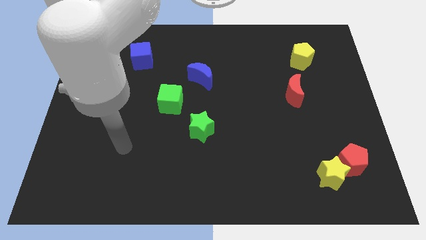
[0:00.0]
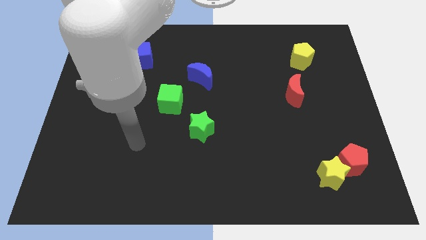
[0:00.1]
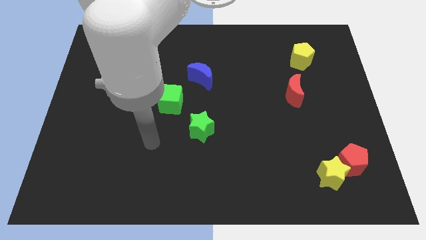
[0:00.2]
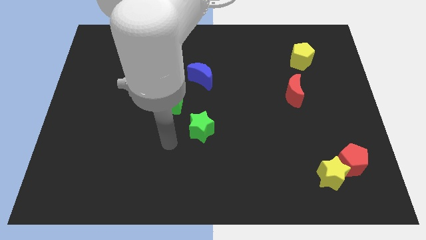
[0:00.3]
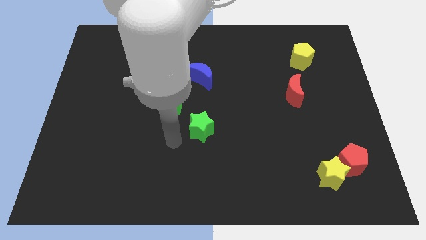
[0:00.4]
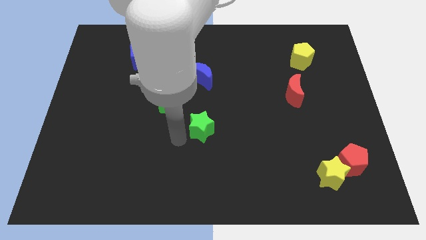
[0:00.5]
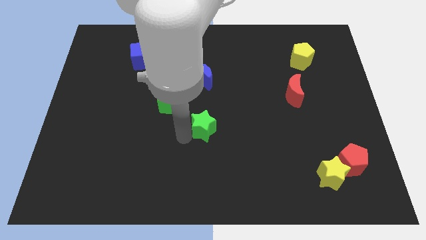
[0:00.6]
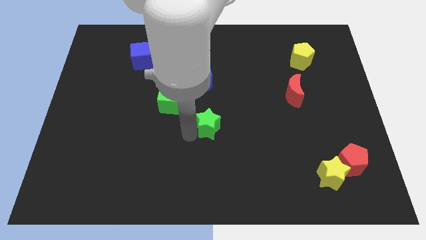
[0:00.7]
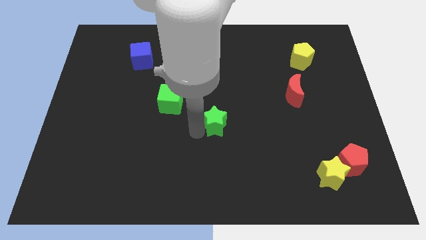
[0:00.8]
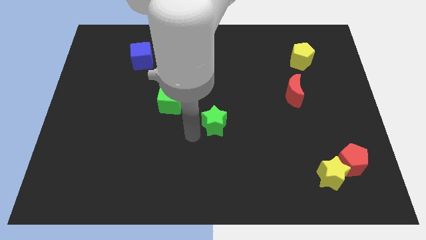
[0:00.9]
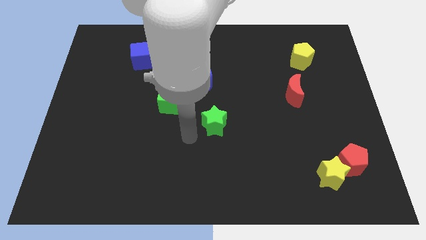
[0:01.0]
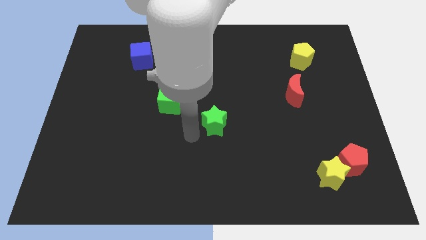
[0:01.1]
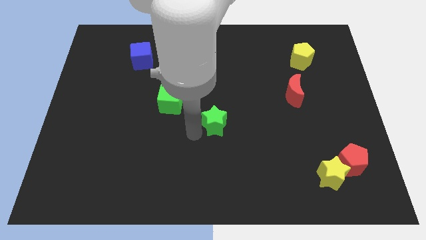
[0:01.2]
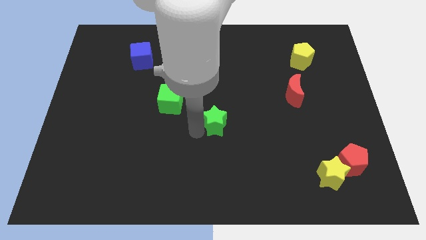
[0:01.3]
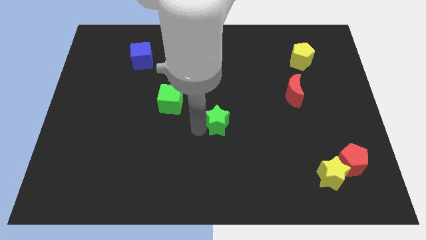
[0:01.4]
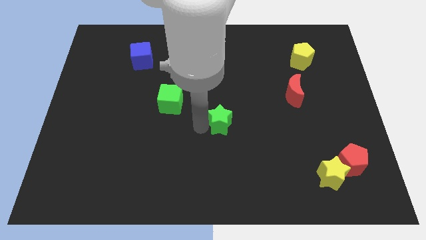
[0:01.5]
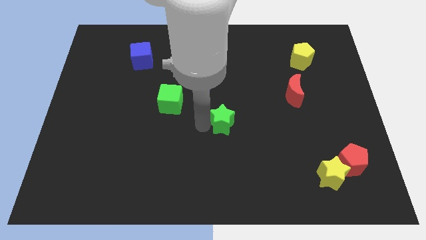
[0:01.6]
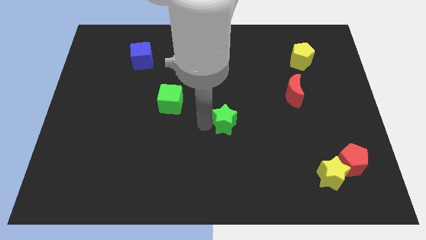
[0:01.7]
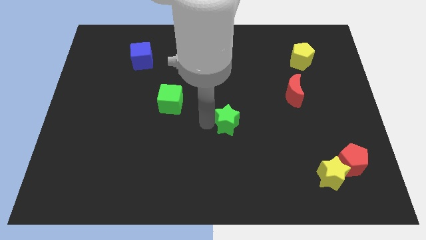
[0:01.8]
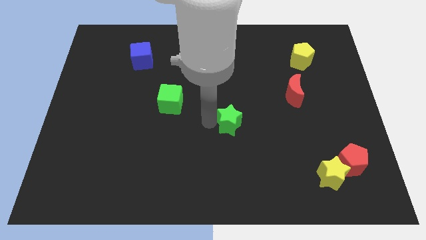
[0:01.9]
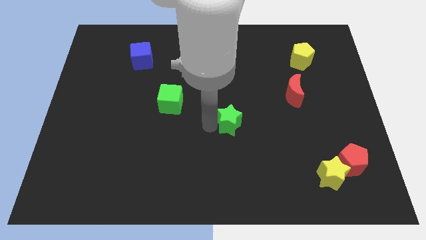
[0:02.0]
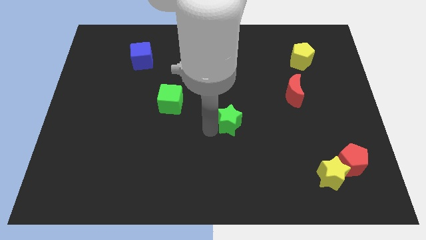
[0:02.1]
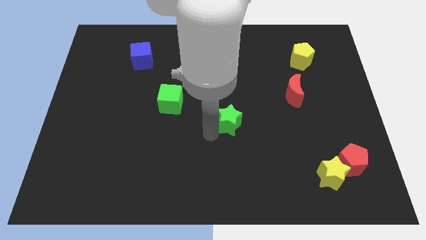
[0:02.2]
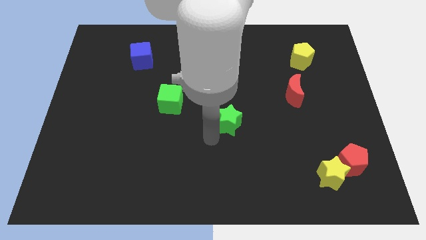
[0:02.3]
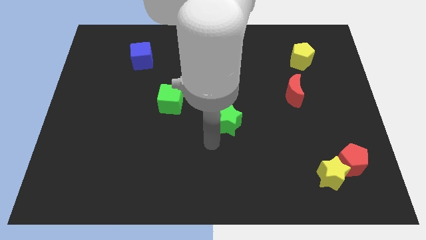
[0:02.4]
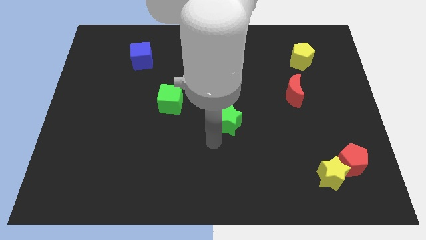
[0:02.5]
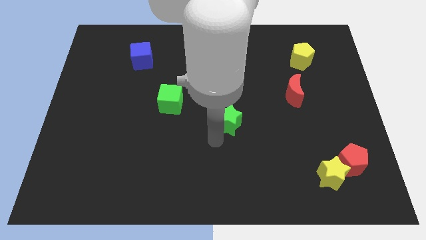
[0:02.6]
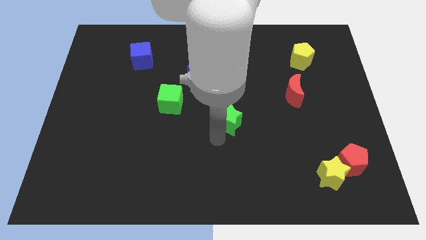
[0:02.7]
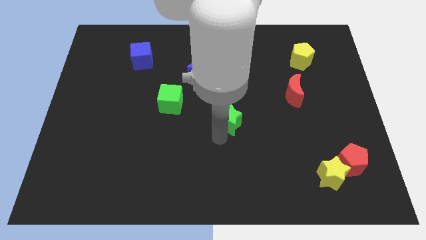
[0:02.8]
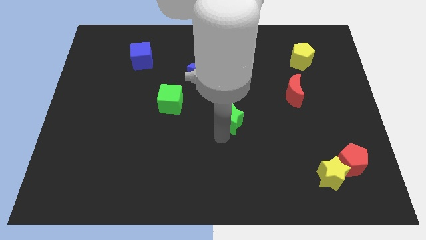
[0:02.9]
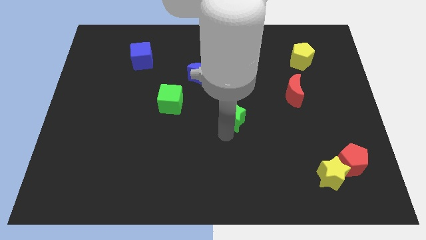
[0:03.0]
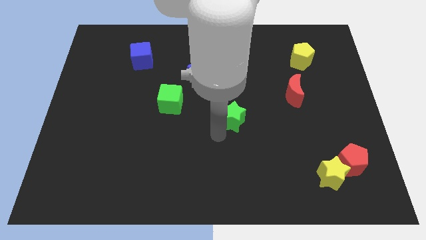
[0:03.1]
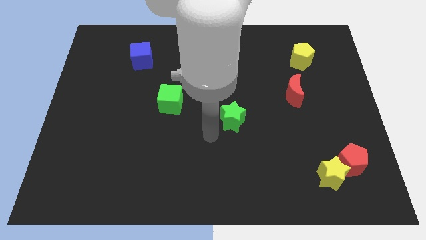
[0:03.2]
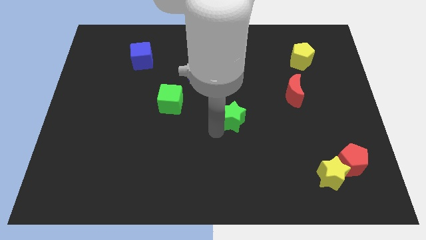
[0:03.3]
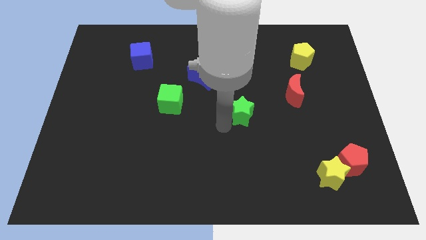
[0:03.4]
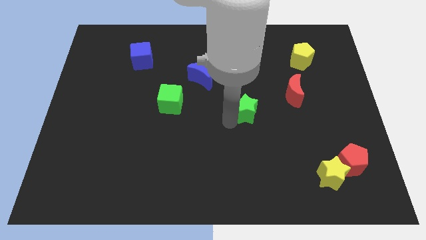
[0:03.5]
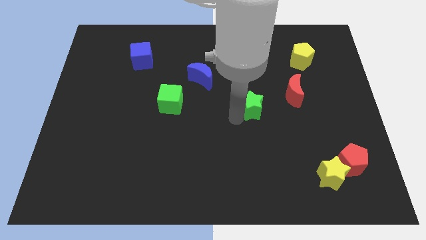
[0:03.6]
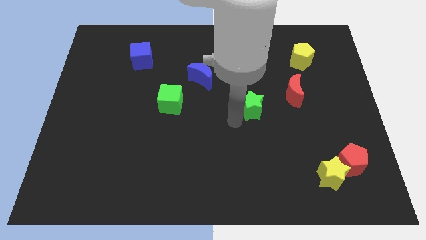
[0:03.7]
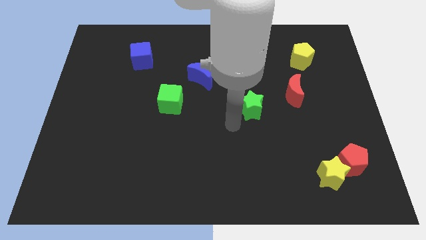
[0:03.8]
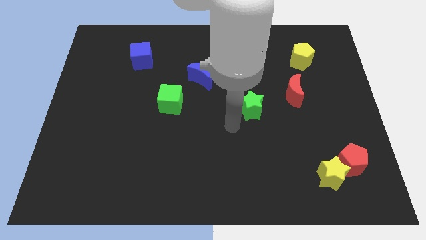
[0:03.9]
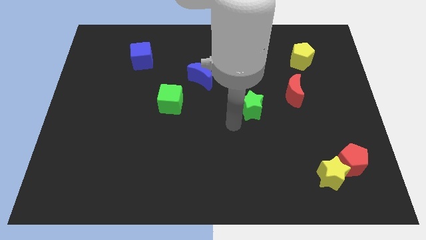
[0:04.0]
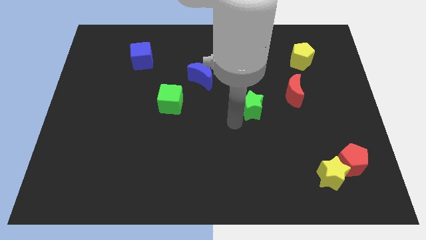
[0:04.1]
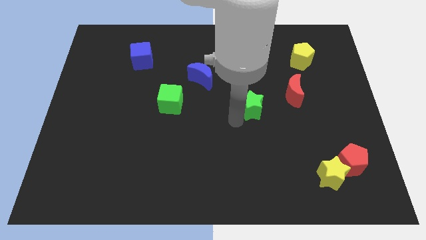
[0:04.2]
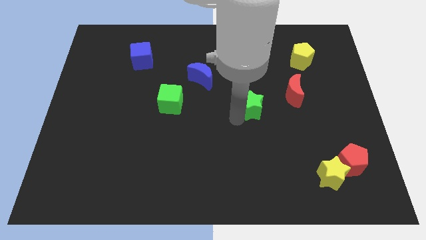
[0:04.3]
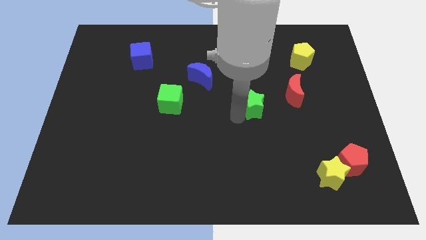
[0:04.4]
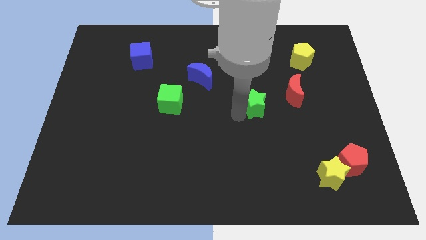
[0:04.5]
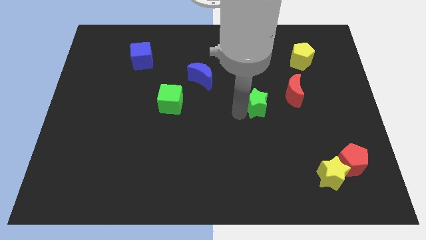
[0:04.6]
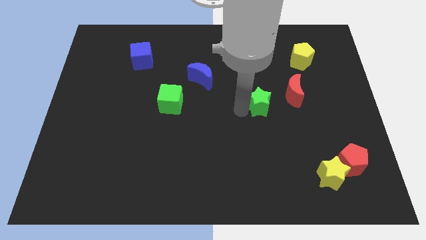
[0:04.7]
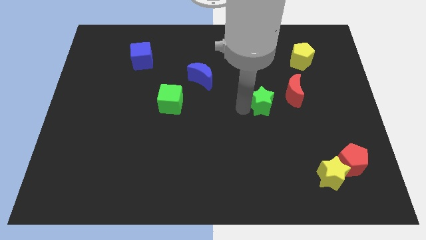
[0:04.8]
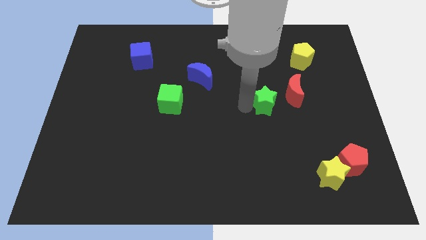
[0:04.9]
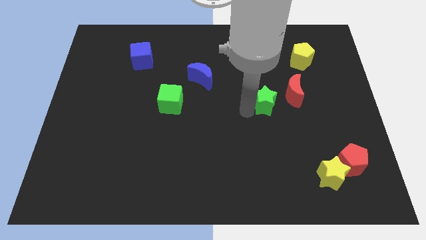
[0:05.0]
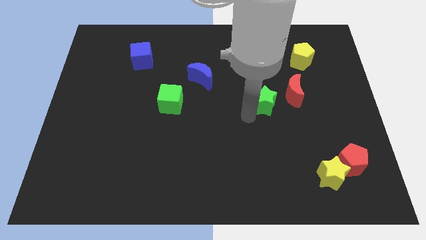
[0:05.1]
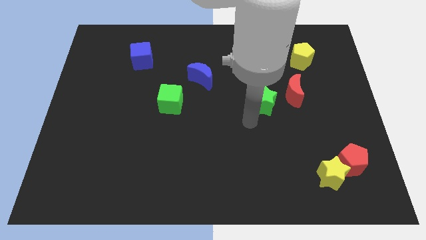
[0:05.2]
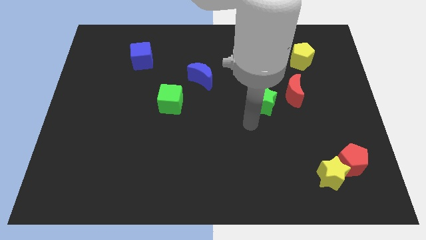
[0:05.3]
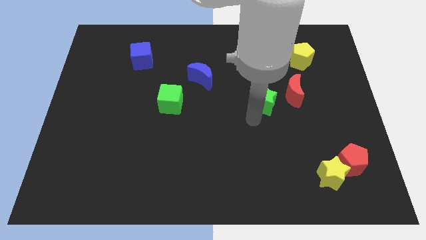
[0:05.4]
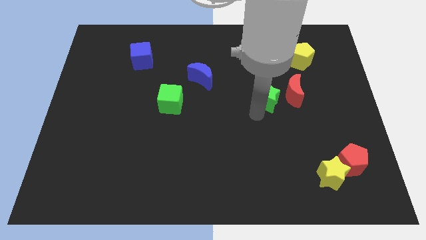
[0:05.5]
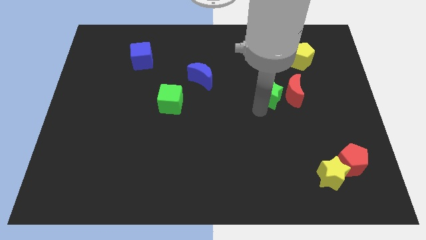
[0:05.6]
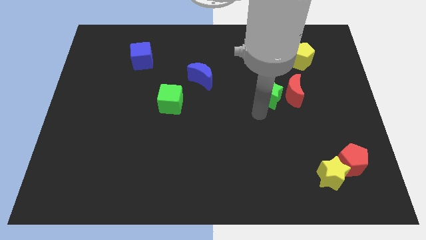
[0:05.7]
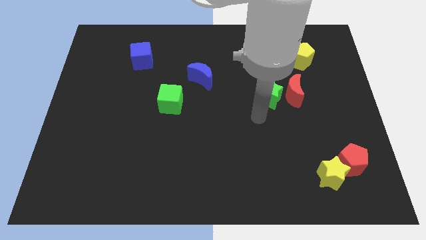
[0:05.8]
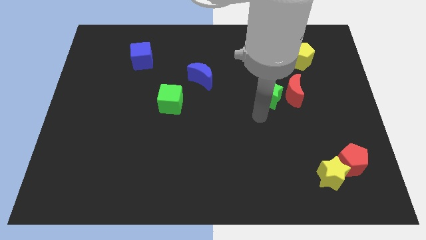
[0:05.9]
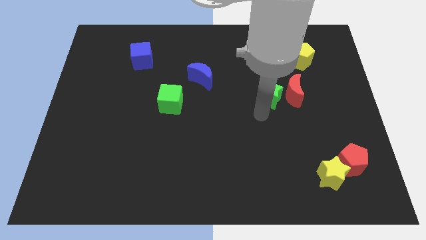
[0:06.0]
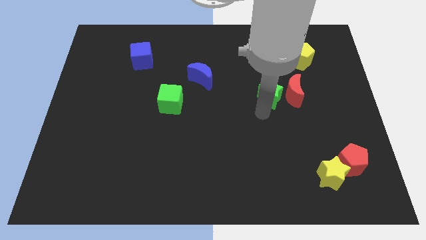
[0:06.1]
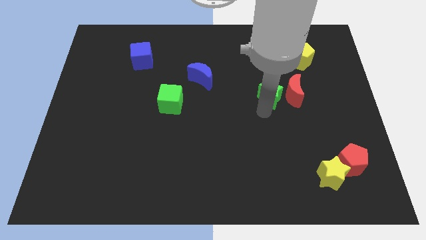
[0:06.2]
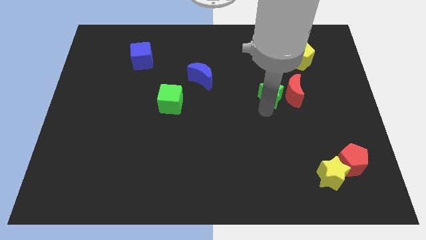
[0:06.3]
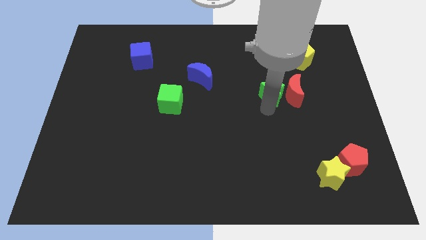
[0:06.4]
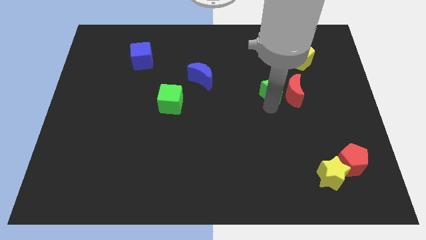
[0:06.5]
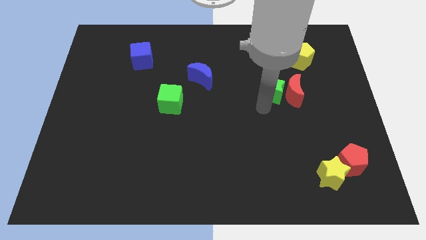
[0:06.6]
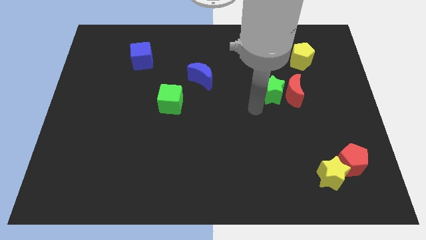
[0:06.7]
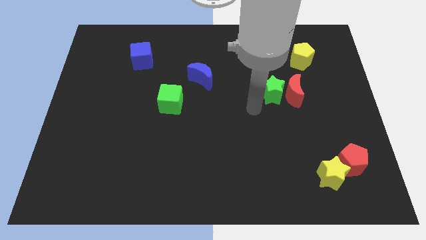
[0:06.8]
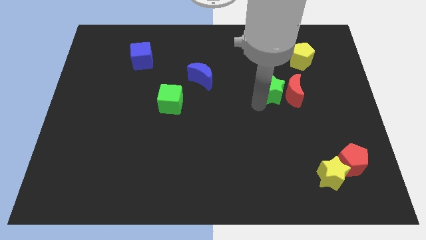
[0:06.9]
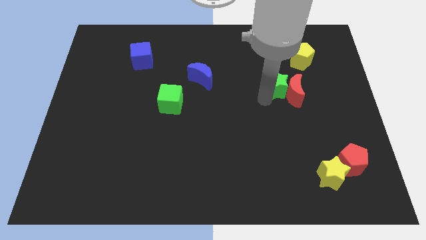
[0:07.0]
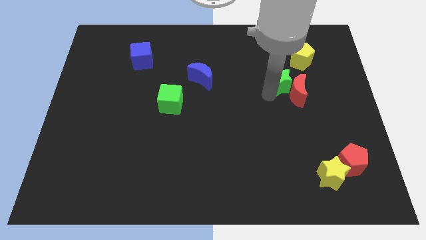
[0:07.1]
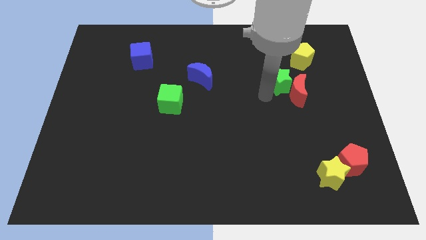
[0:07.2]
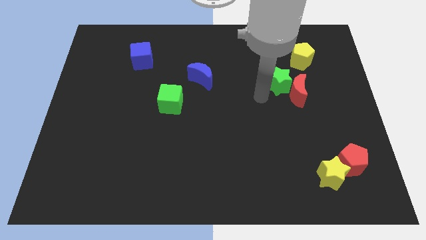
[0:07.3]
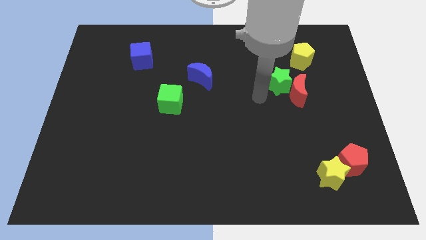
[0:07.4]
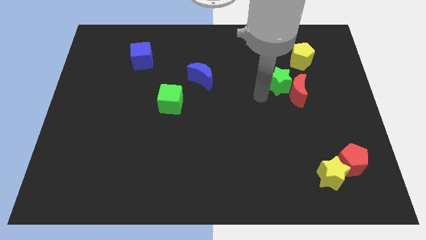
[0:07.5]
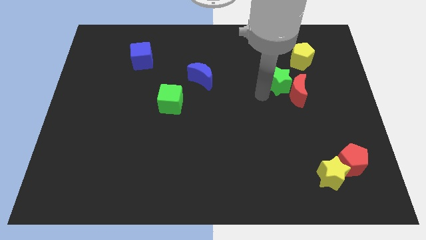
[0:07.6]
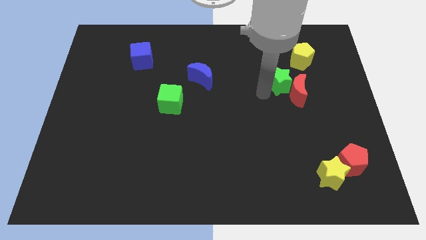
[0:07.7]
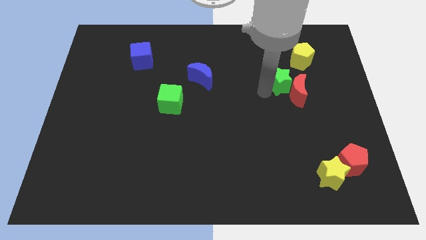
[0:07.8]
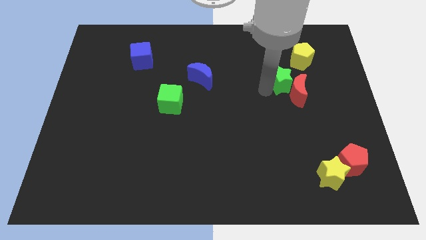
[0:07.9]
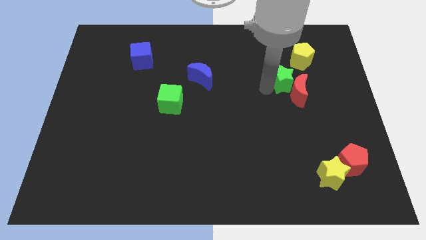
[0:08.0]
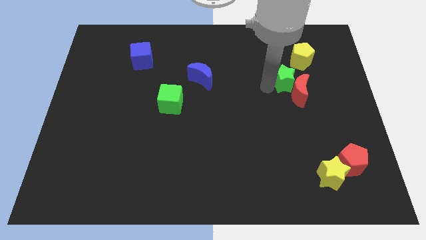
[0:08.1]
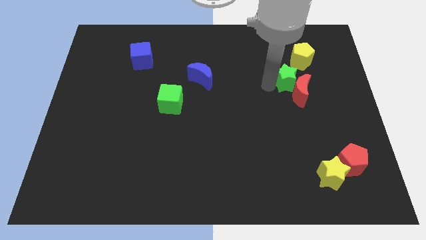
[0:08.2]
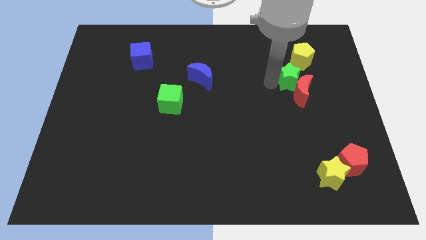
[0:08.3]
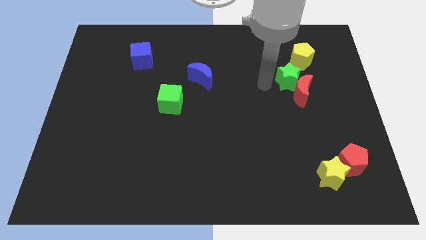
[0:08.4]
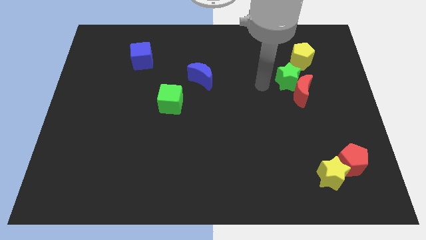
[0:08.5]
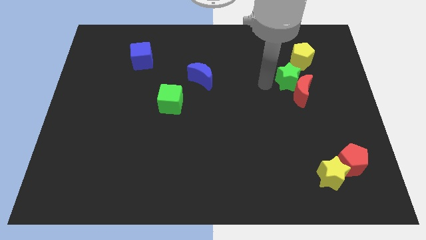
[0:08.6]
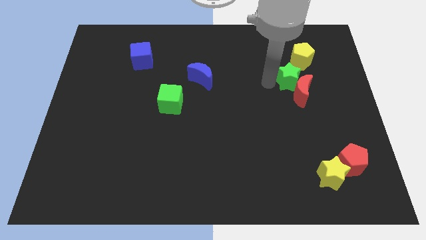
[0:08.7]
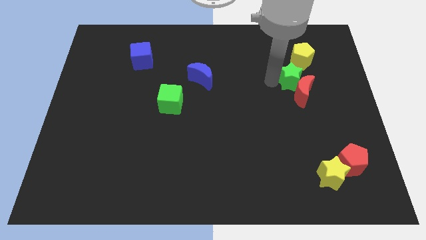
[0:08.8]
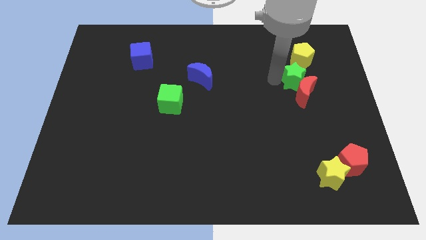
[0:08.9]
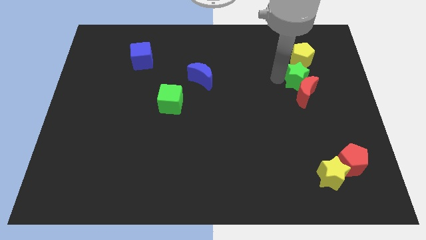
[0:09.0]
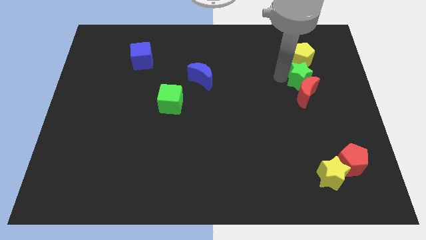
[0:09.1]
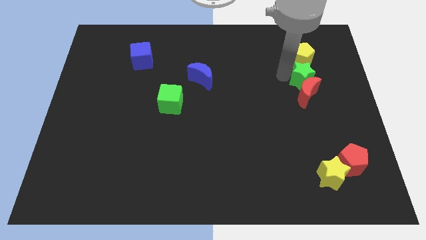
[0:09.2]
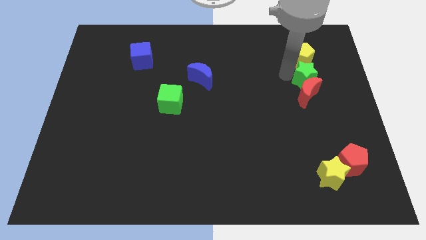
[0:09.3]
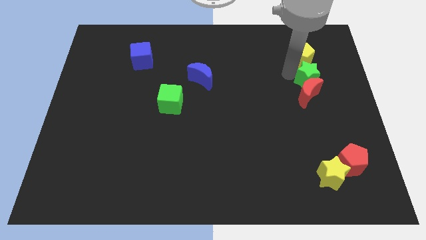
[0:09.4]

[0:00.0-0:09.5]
slide the green star to the bottom right side of the yellow pentagon
